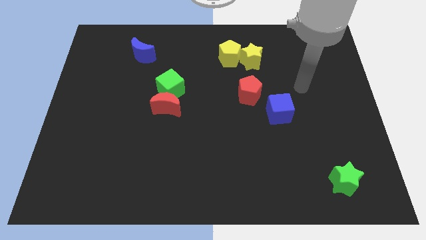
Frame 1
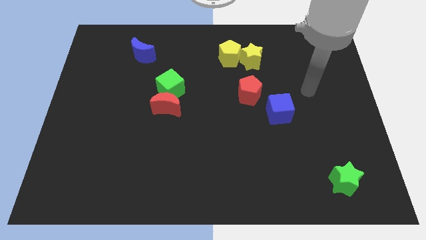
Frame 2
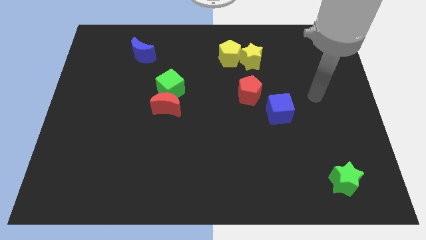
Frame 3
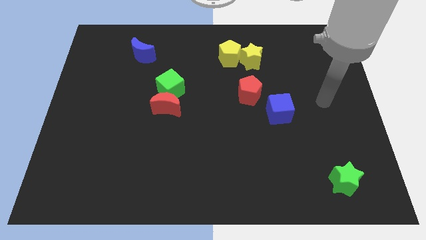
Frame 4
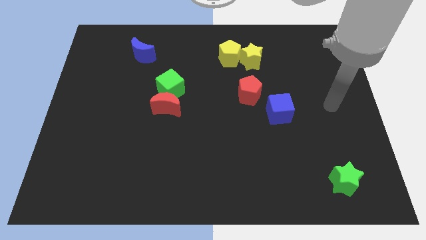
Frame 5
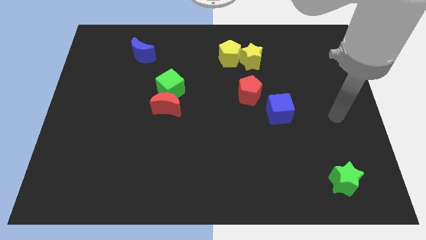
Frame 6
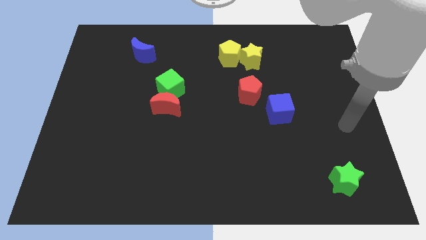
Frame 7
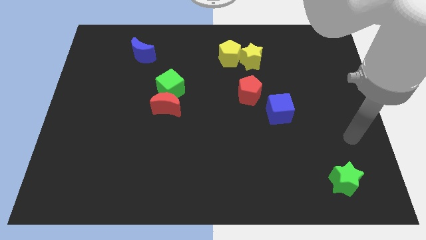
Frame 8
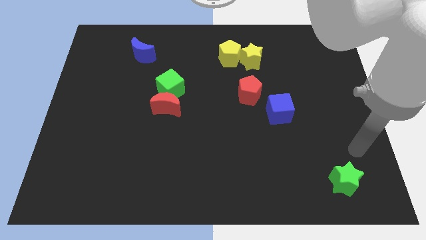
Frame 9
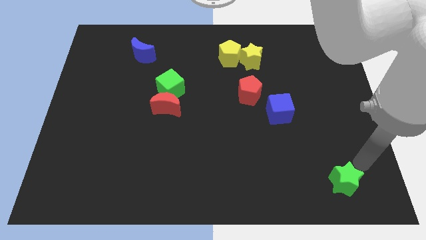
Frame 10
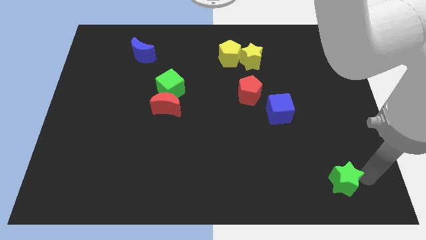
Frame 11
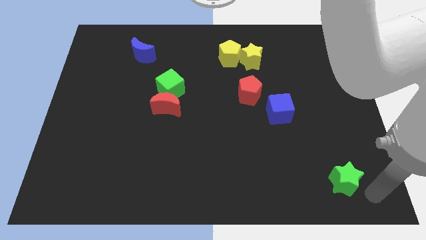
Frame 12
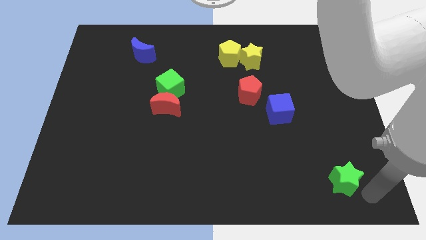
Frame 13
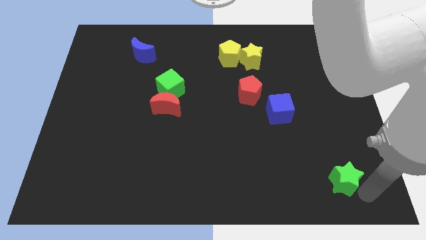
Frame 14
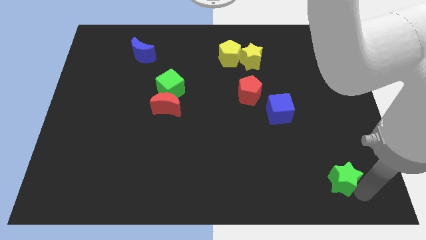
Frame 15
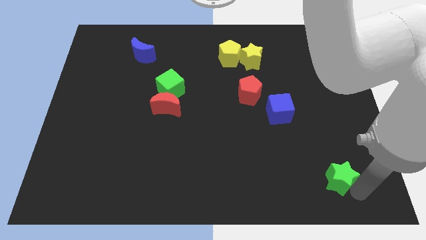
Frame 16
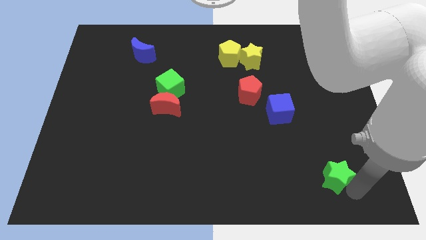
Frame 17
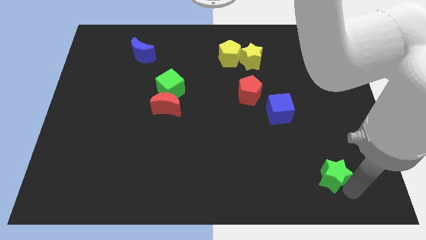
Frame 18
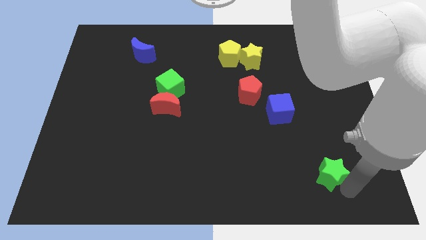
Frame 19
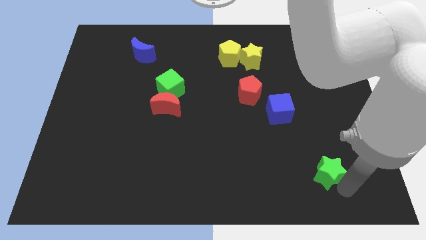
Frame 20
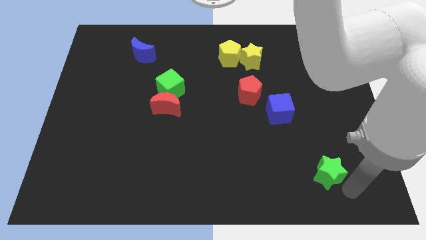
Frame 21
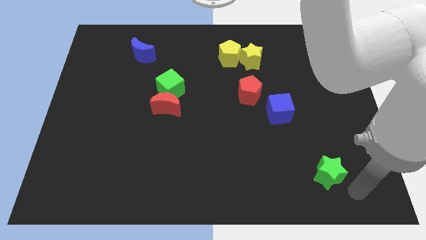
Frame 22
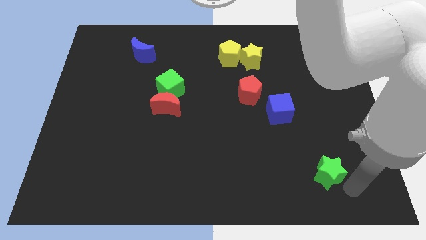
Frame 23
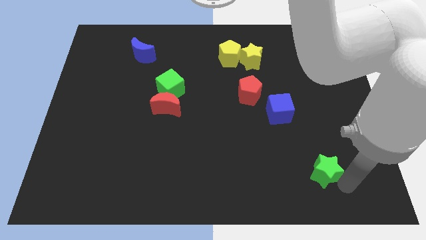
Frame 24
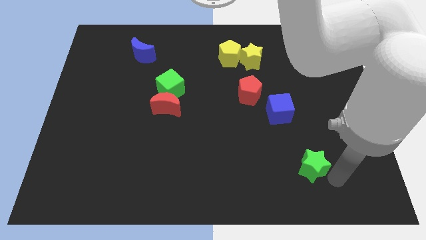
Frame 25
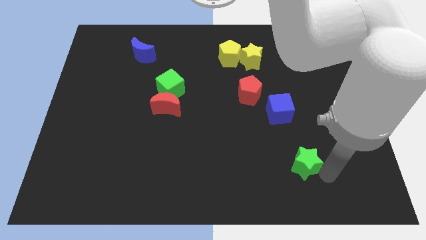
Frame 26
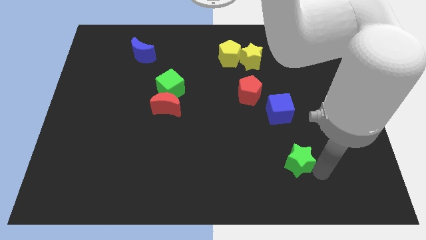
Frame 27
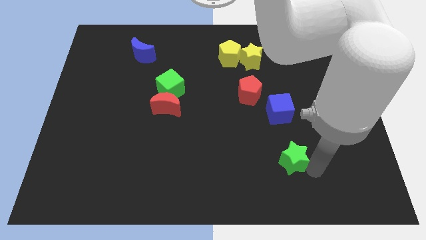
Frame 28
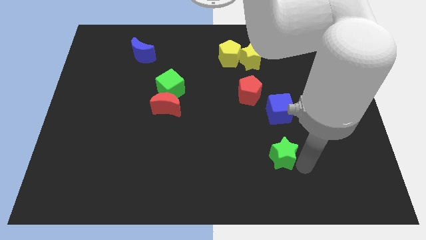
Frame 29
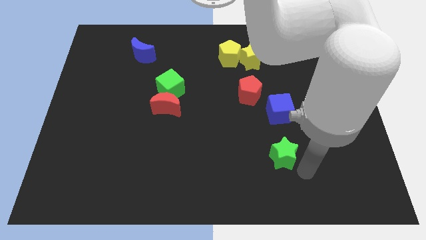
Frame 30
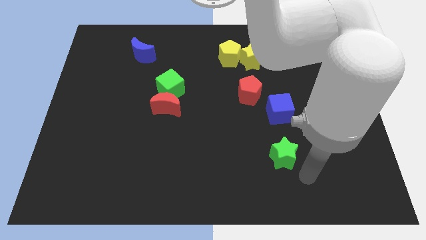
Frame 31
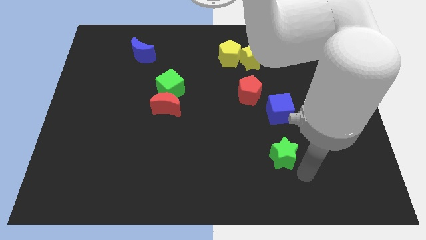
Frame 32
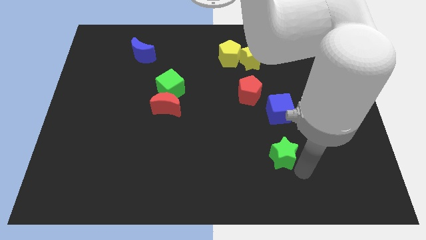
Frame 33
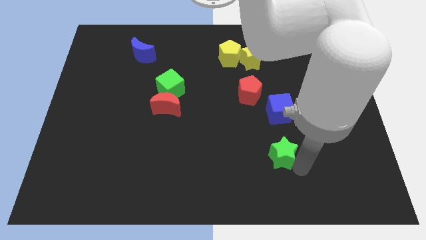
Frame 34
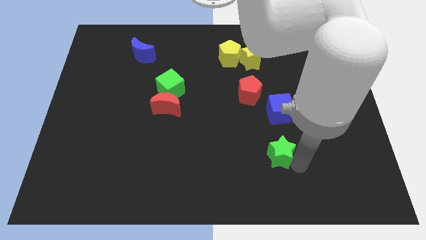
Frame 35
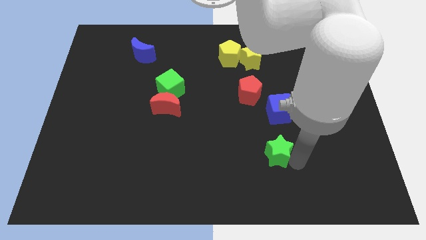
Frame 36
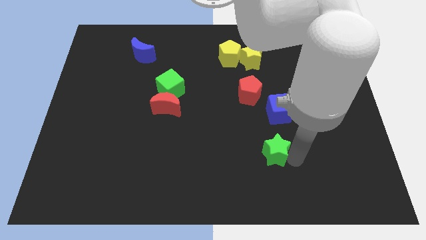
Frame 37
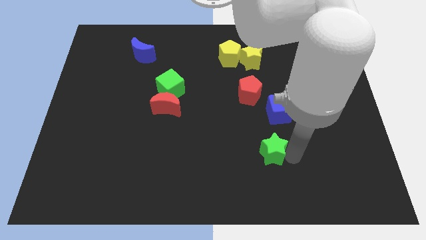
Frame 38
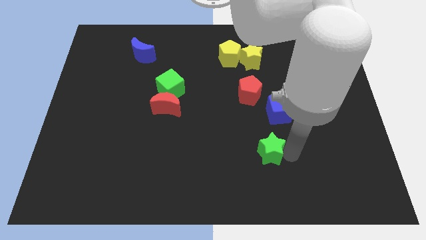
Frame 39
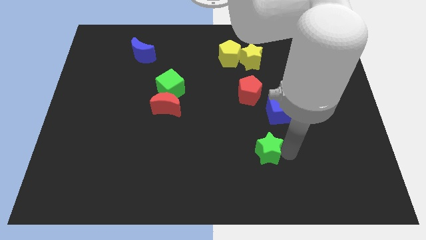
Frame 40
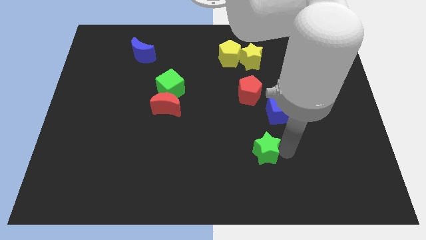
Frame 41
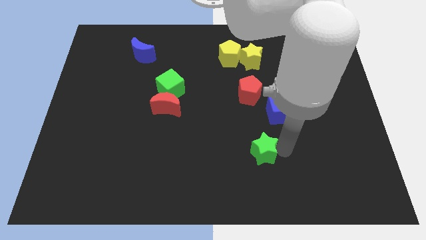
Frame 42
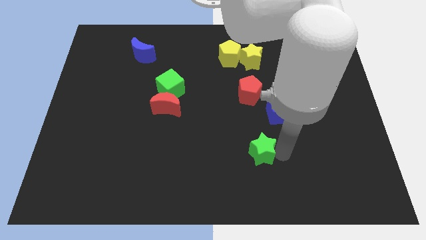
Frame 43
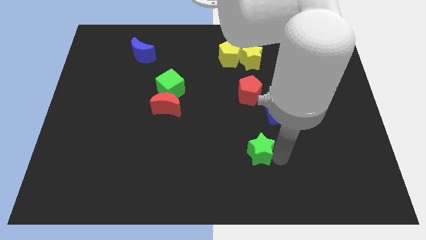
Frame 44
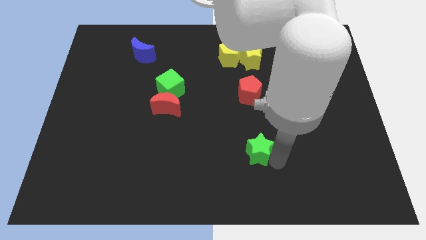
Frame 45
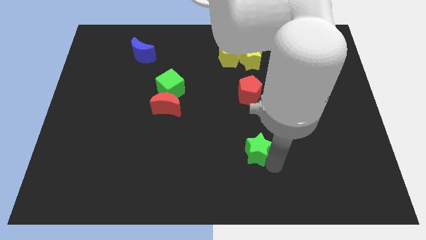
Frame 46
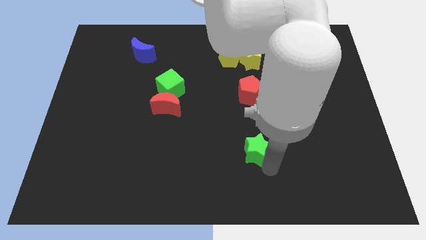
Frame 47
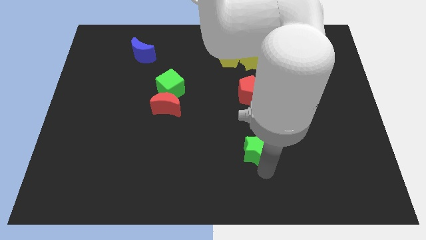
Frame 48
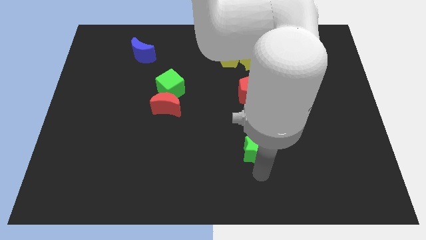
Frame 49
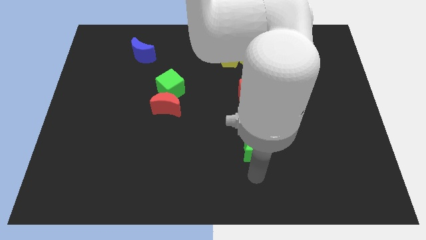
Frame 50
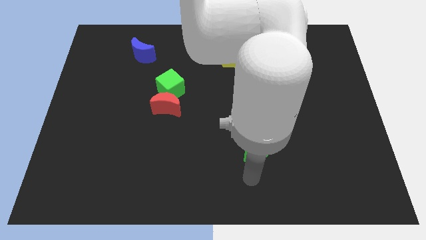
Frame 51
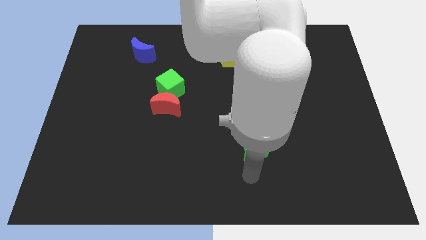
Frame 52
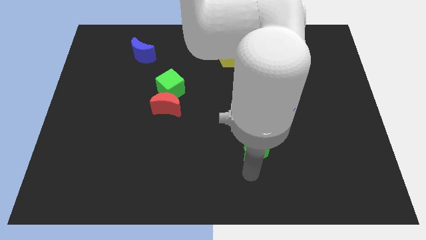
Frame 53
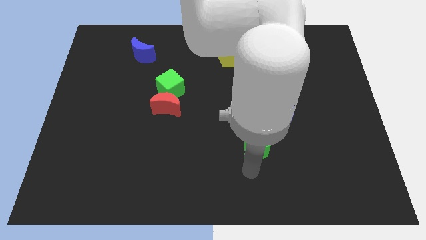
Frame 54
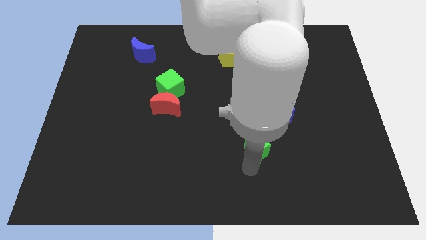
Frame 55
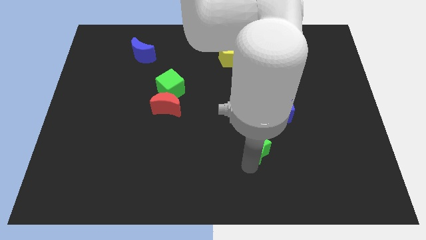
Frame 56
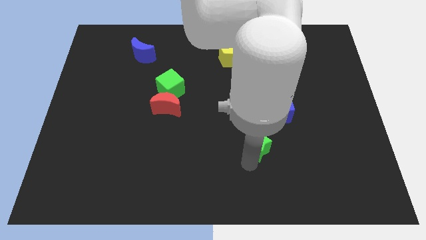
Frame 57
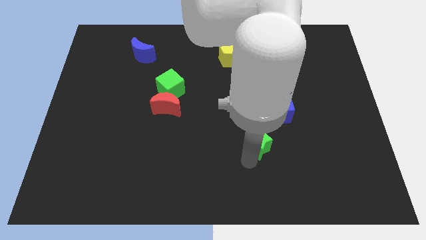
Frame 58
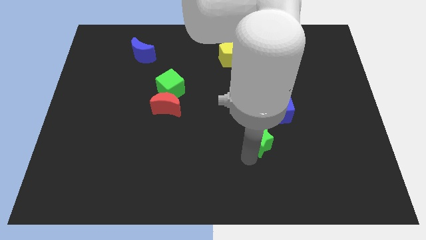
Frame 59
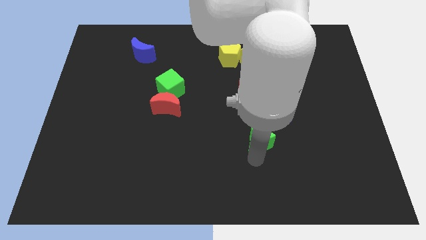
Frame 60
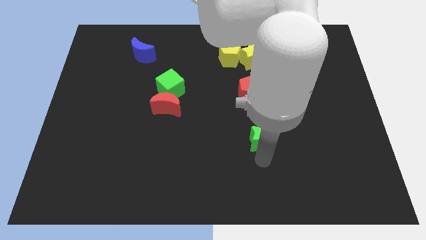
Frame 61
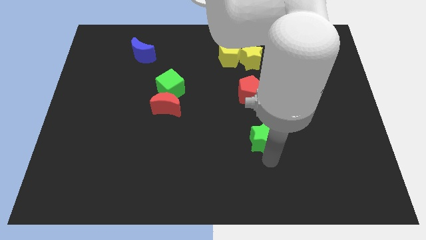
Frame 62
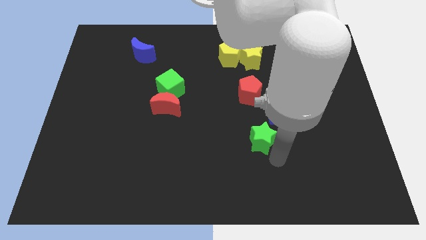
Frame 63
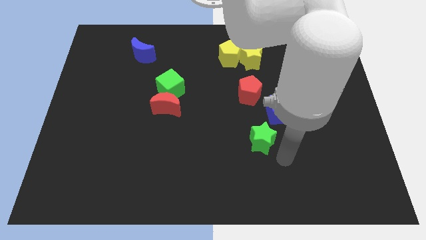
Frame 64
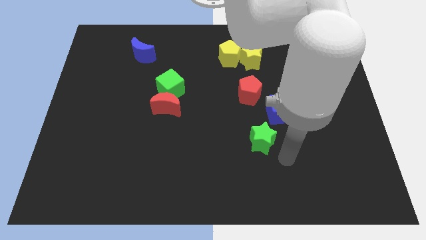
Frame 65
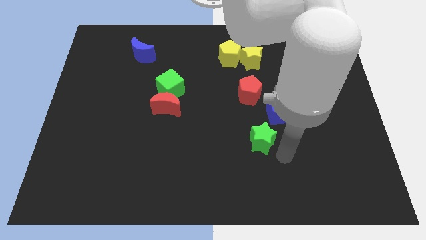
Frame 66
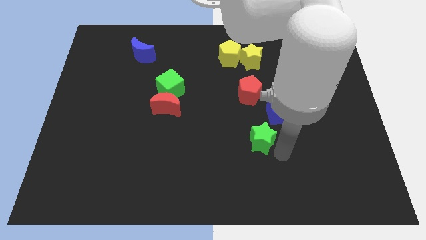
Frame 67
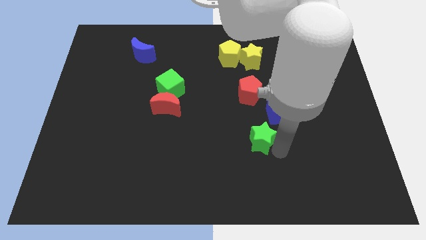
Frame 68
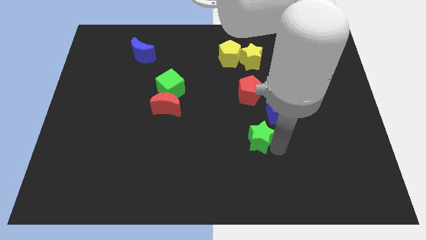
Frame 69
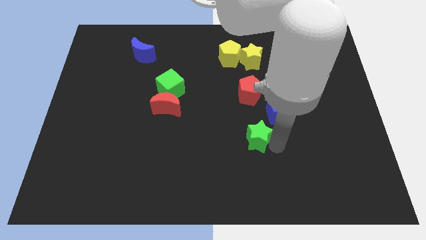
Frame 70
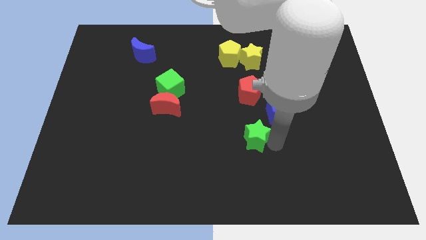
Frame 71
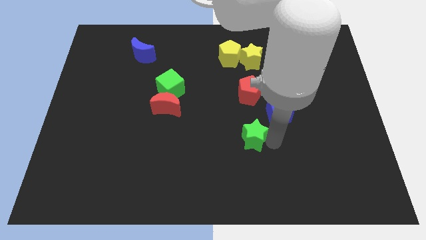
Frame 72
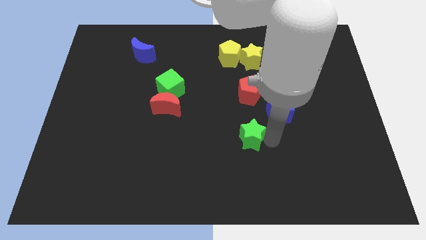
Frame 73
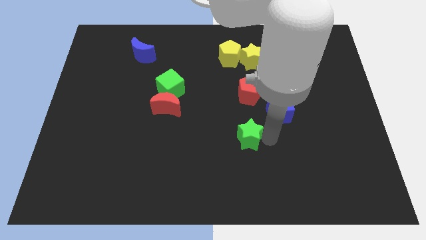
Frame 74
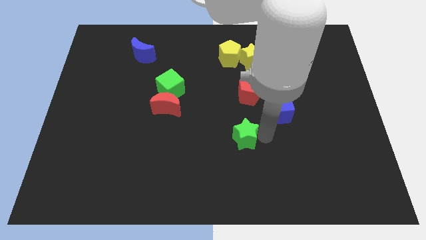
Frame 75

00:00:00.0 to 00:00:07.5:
push the green star to the center
